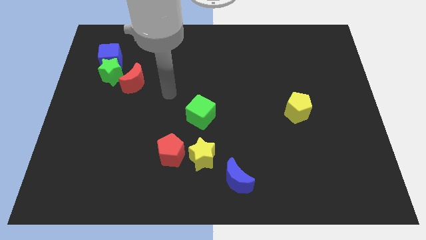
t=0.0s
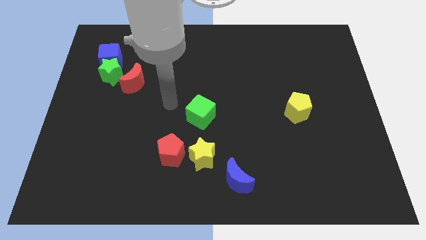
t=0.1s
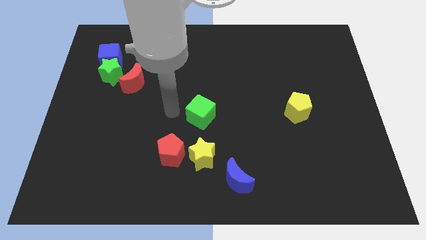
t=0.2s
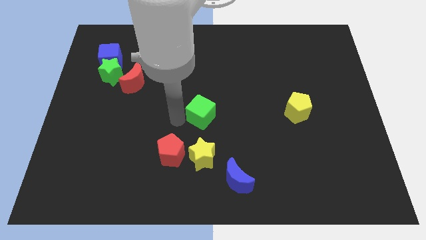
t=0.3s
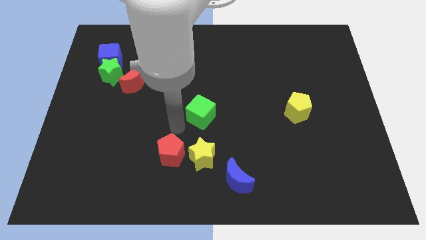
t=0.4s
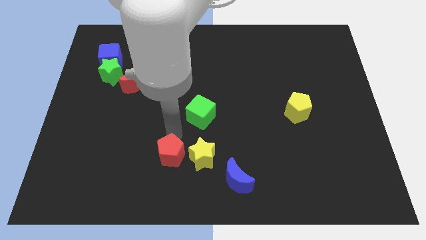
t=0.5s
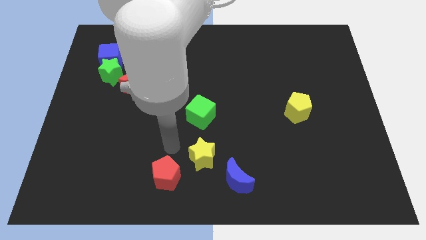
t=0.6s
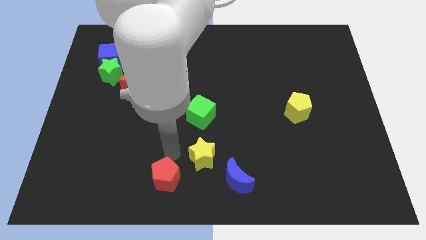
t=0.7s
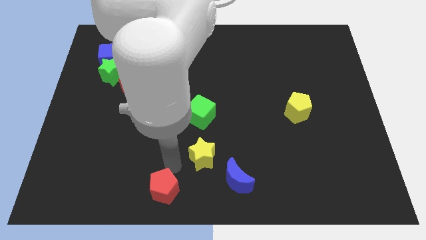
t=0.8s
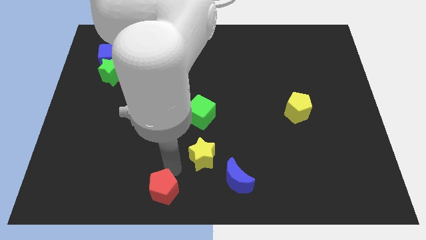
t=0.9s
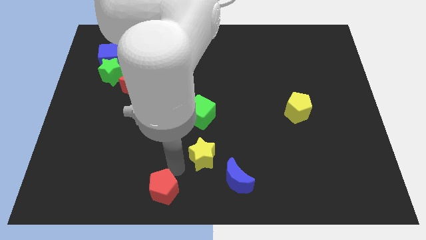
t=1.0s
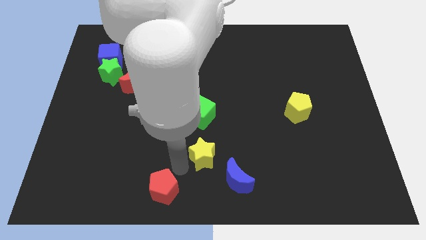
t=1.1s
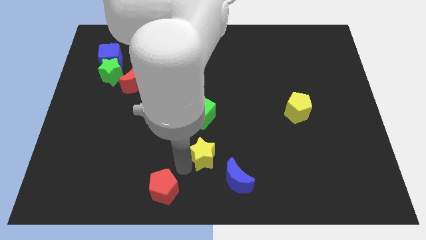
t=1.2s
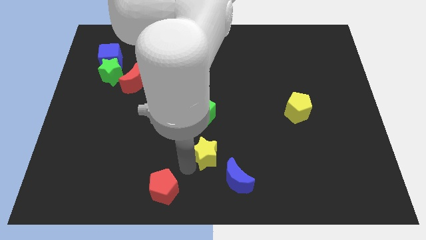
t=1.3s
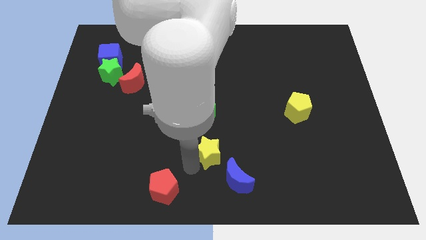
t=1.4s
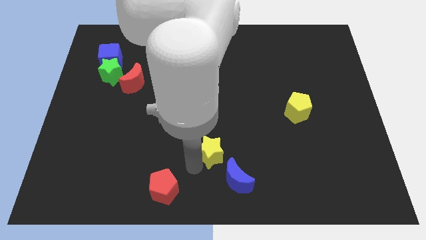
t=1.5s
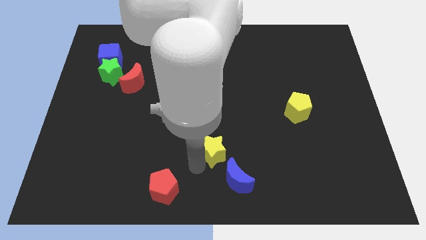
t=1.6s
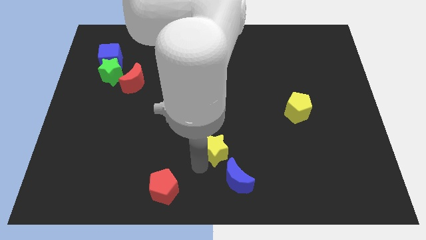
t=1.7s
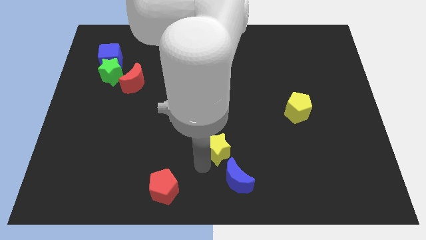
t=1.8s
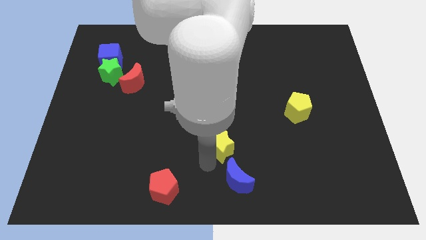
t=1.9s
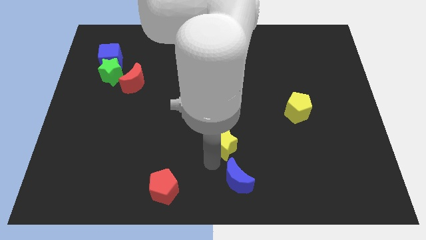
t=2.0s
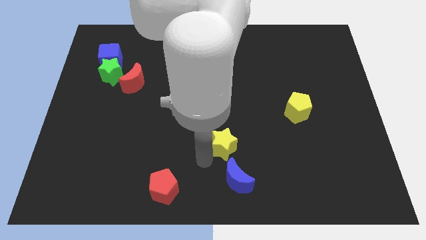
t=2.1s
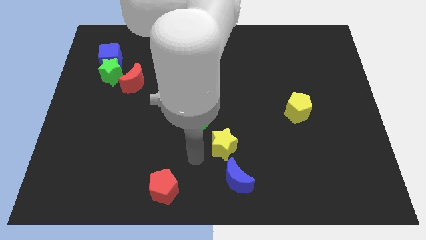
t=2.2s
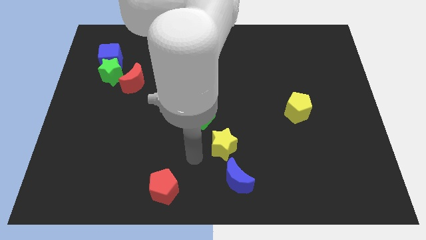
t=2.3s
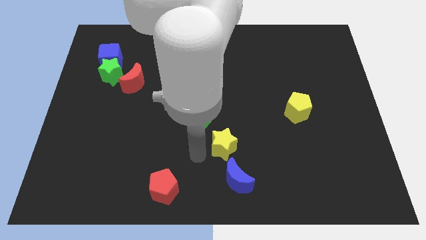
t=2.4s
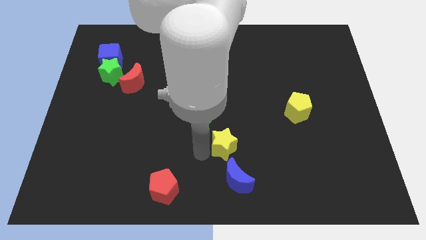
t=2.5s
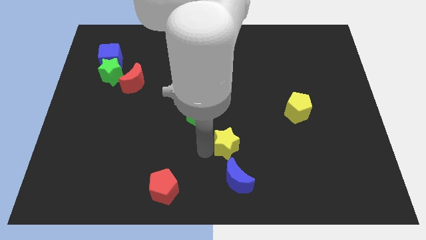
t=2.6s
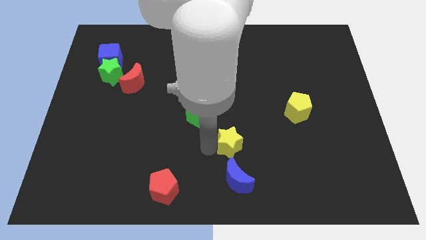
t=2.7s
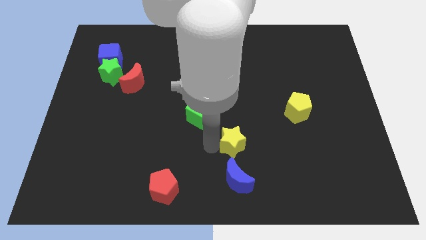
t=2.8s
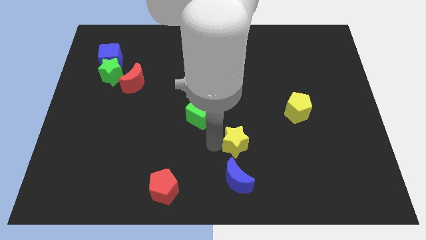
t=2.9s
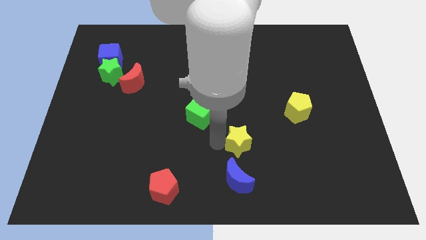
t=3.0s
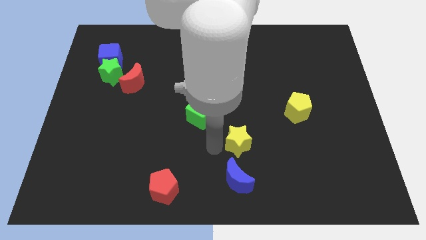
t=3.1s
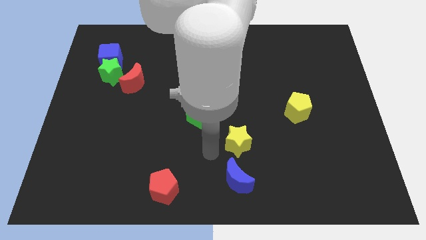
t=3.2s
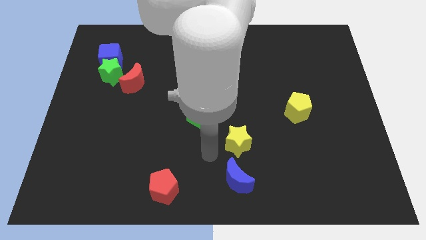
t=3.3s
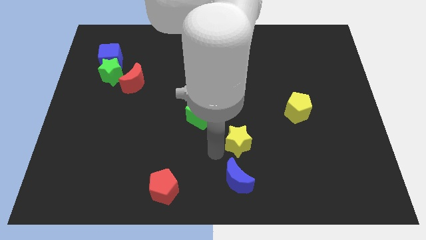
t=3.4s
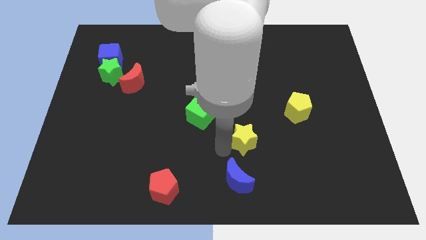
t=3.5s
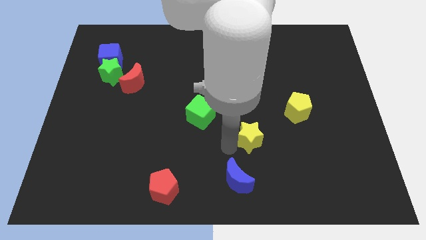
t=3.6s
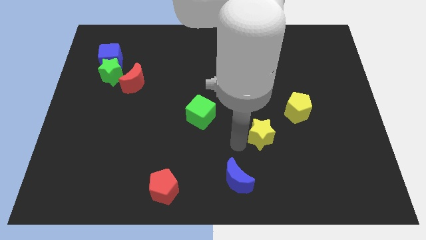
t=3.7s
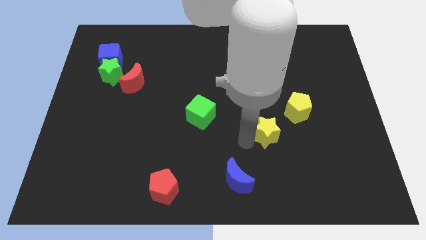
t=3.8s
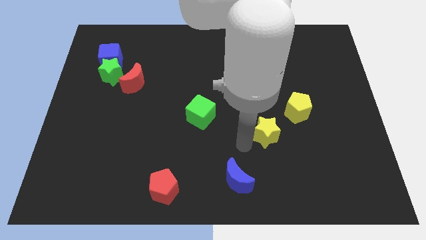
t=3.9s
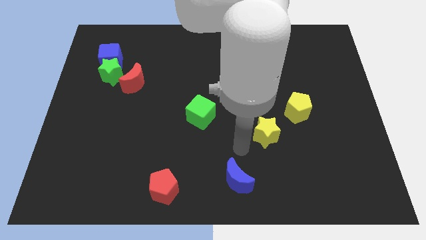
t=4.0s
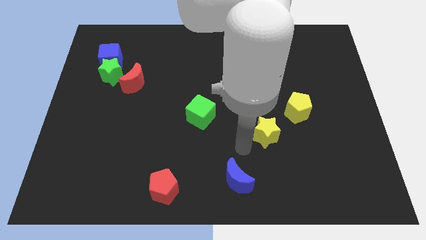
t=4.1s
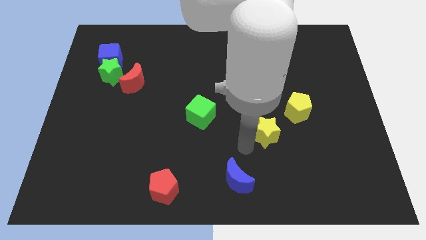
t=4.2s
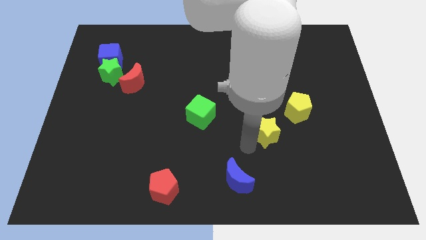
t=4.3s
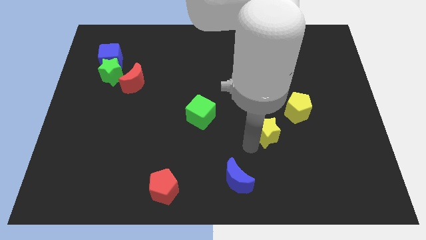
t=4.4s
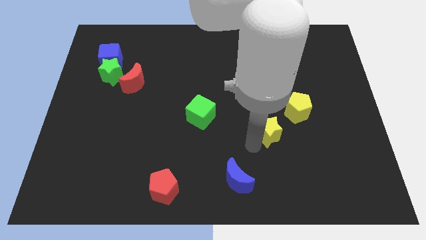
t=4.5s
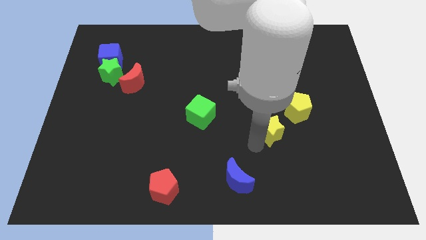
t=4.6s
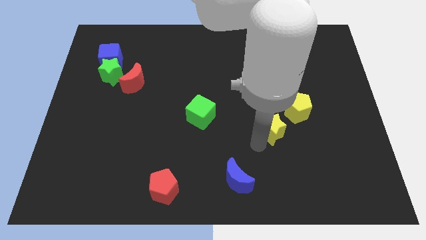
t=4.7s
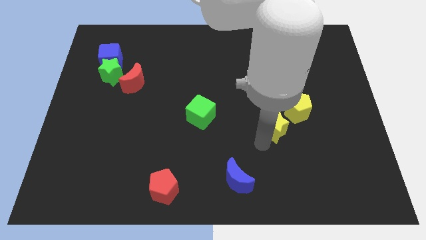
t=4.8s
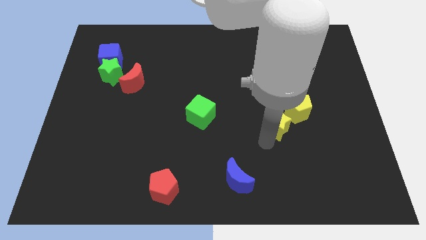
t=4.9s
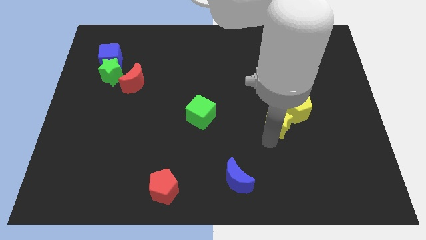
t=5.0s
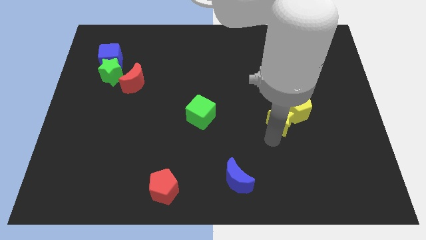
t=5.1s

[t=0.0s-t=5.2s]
move the yellow star close to the yellow pentagon

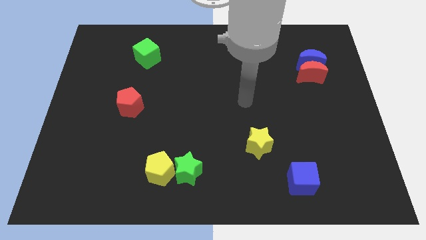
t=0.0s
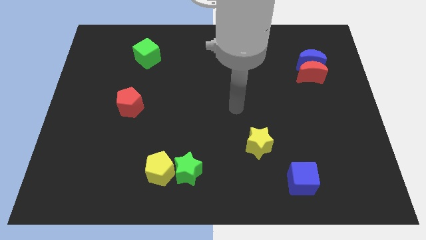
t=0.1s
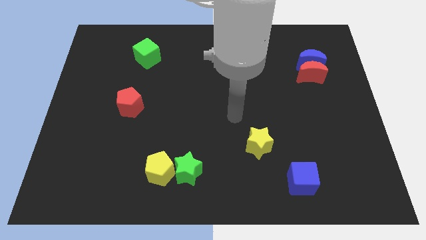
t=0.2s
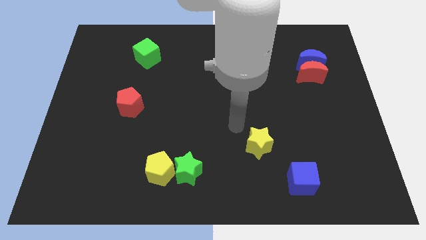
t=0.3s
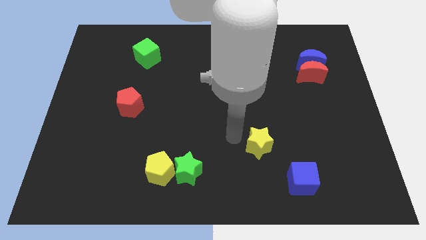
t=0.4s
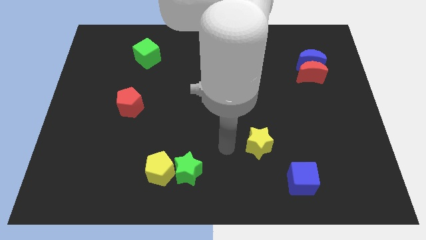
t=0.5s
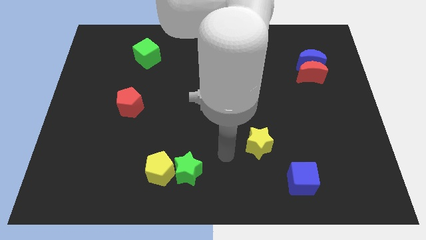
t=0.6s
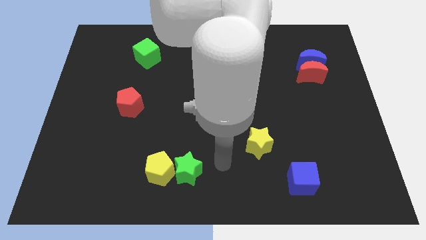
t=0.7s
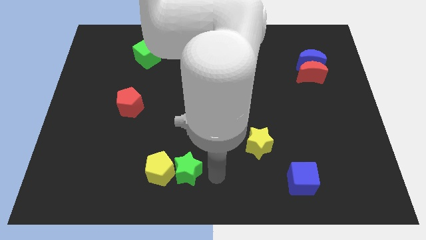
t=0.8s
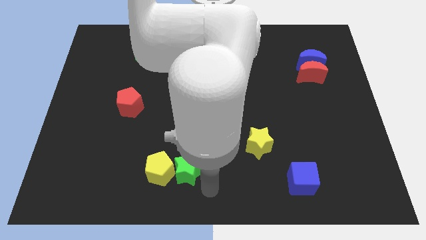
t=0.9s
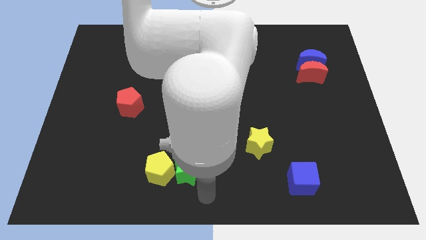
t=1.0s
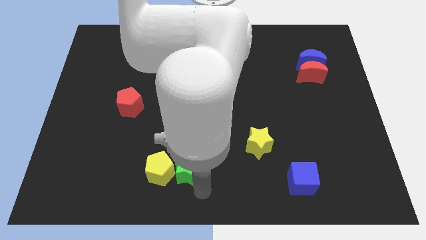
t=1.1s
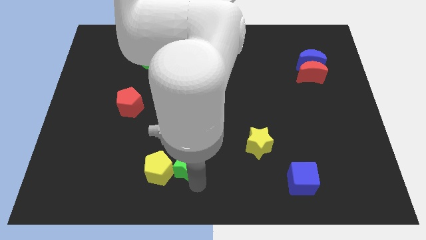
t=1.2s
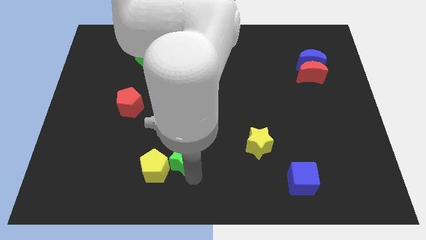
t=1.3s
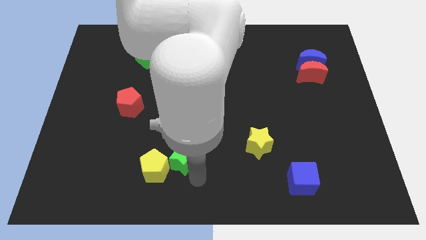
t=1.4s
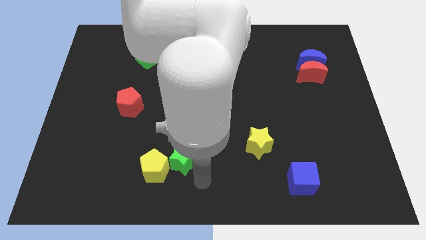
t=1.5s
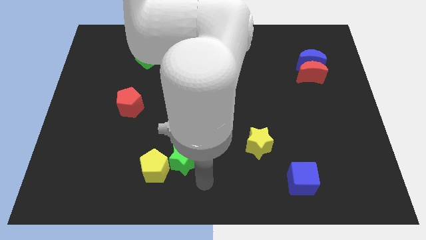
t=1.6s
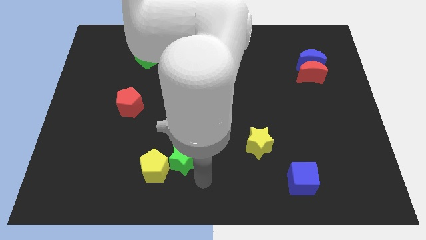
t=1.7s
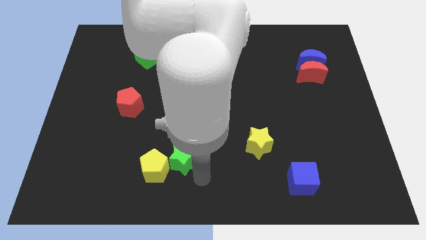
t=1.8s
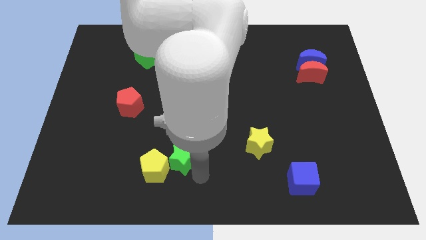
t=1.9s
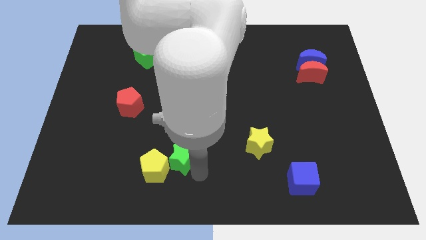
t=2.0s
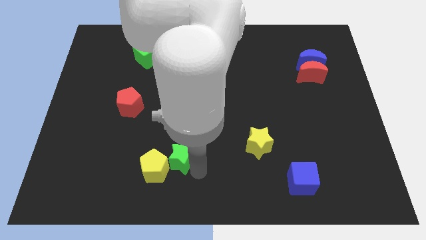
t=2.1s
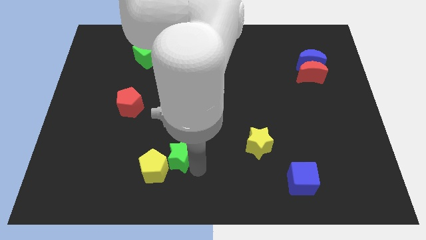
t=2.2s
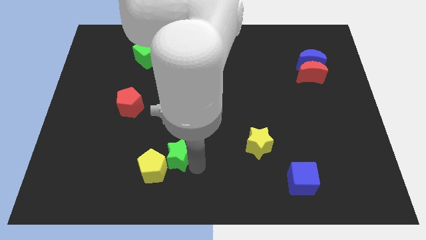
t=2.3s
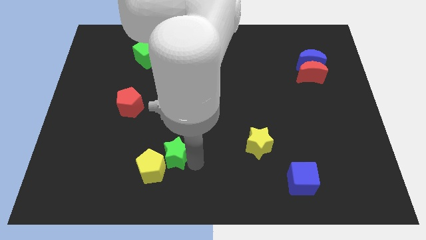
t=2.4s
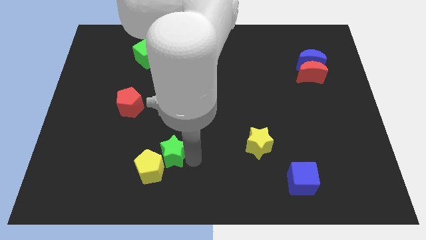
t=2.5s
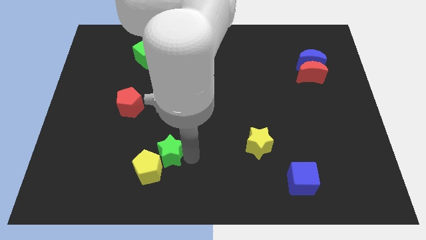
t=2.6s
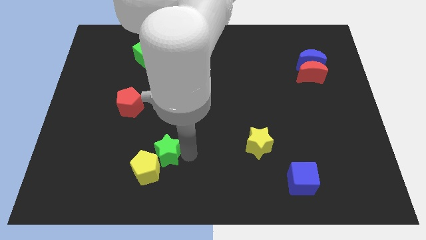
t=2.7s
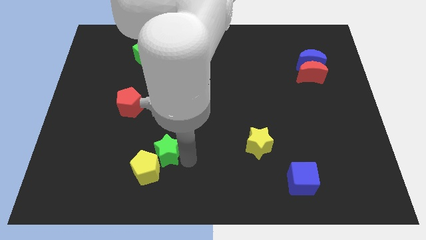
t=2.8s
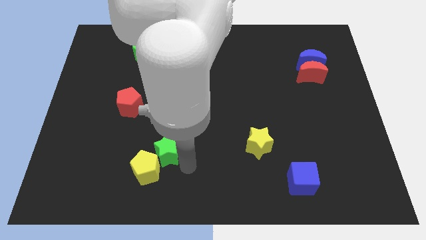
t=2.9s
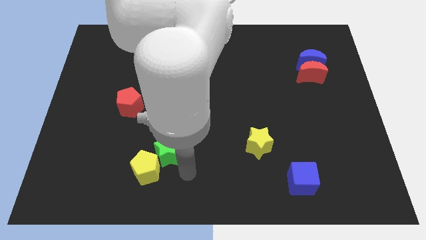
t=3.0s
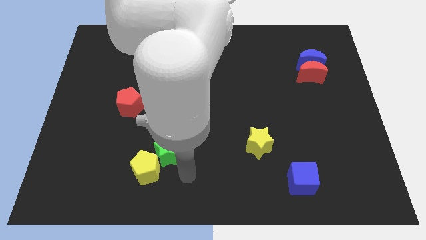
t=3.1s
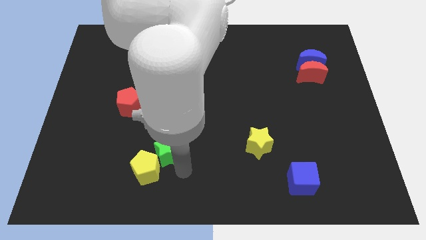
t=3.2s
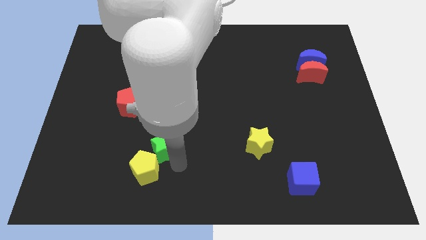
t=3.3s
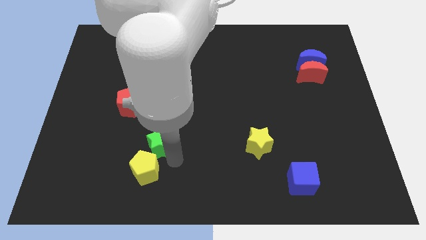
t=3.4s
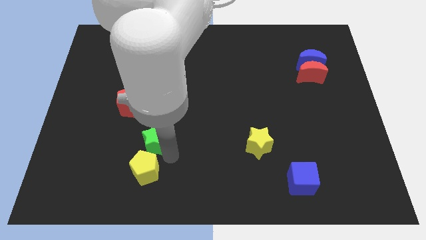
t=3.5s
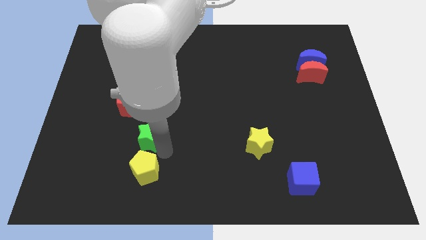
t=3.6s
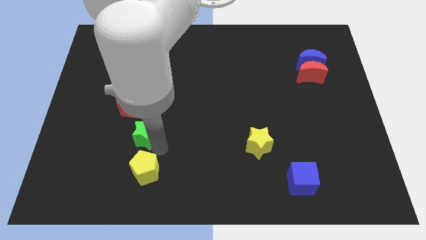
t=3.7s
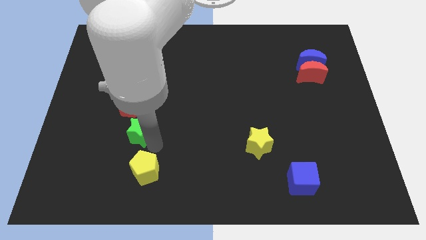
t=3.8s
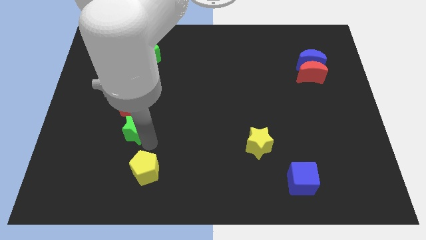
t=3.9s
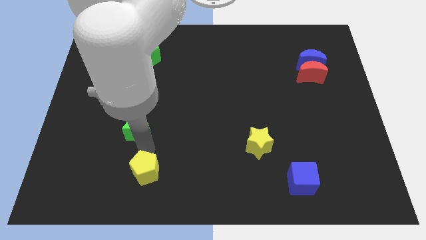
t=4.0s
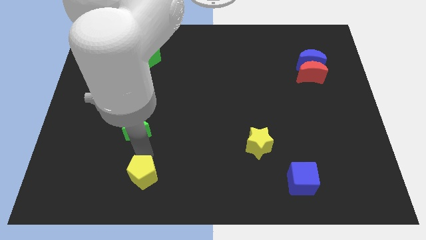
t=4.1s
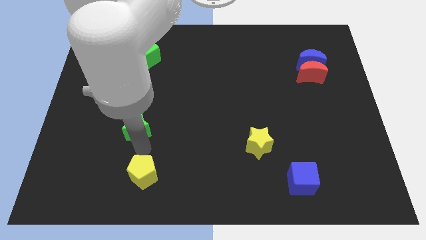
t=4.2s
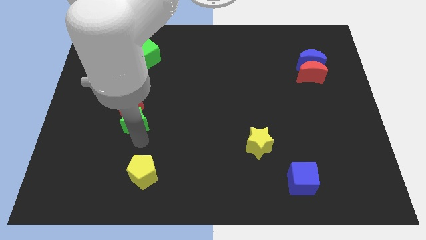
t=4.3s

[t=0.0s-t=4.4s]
slide the green star to the red pentagon
